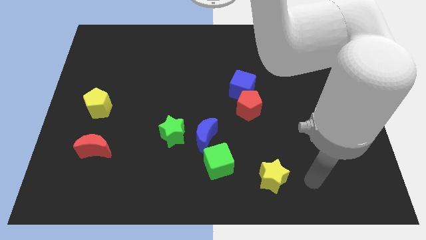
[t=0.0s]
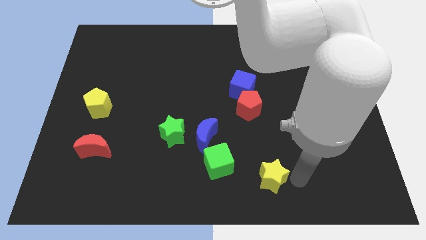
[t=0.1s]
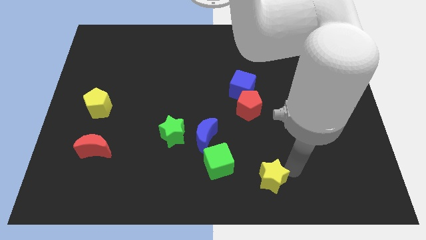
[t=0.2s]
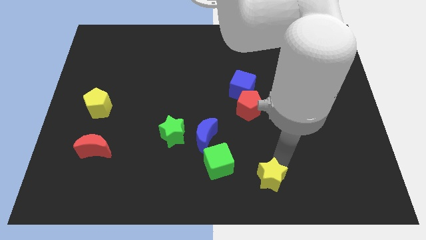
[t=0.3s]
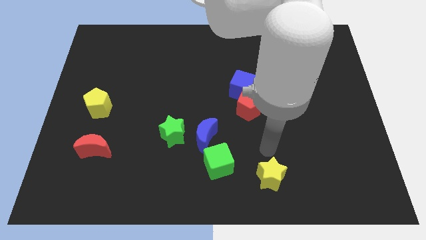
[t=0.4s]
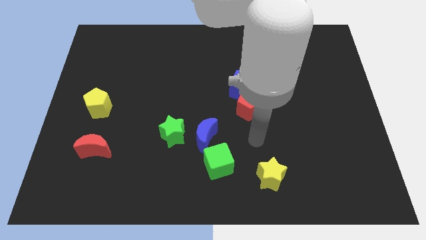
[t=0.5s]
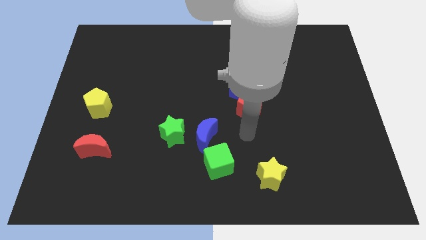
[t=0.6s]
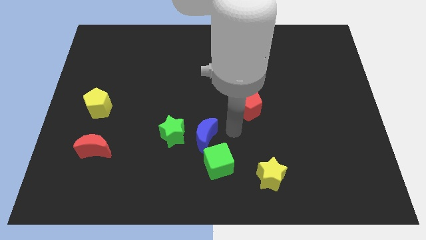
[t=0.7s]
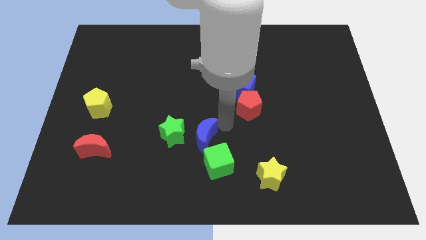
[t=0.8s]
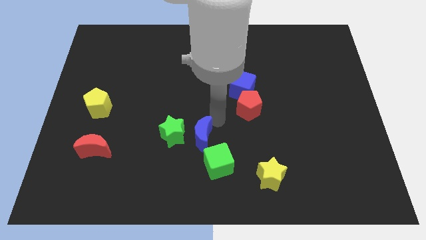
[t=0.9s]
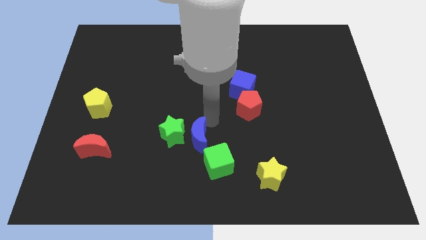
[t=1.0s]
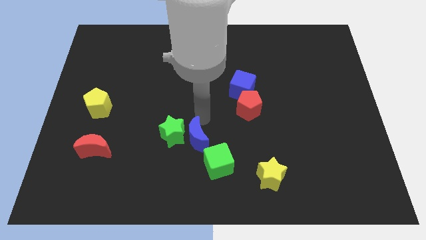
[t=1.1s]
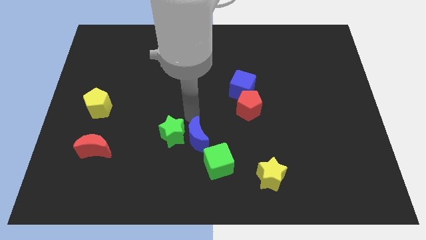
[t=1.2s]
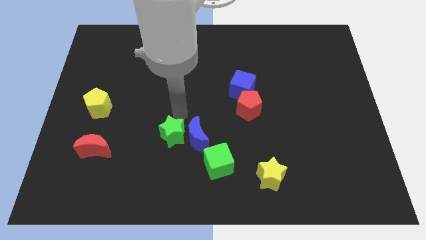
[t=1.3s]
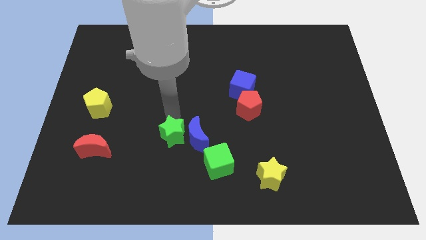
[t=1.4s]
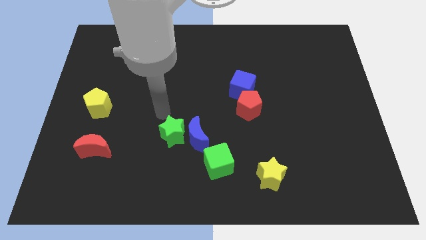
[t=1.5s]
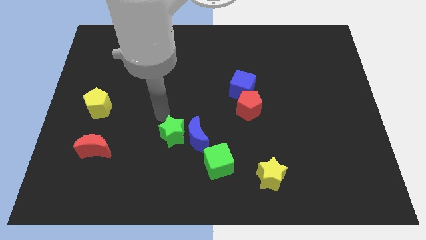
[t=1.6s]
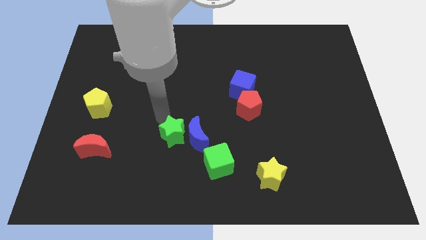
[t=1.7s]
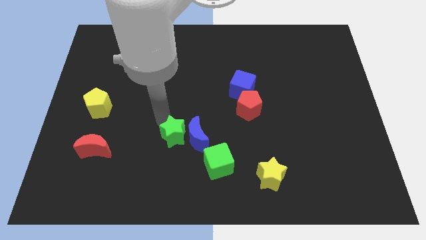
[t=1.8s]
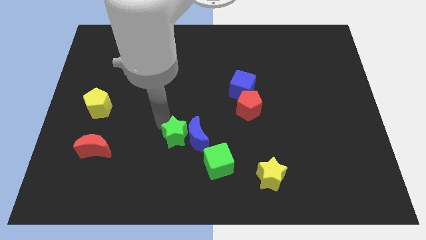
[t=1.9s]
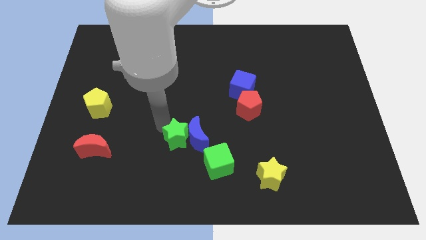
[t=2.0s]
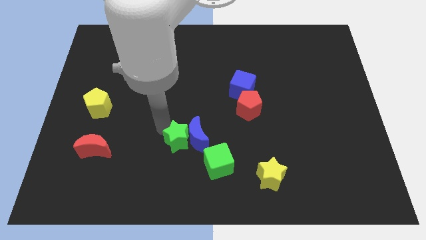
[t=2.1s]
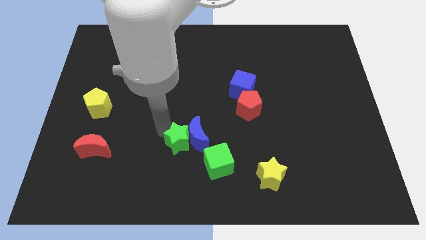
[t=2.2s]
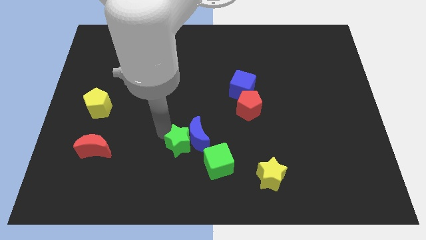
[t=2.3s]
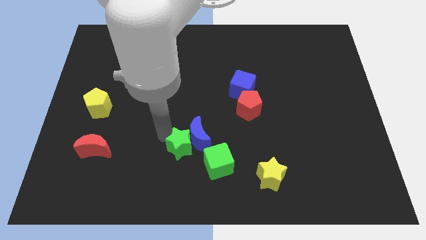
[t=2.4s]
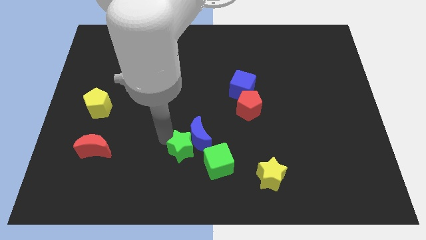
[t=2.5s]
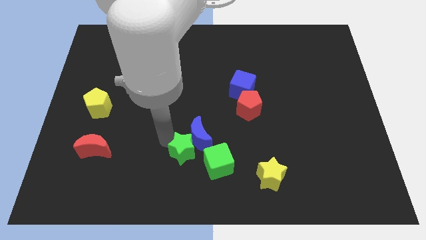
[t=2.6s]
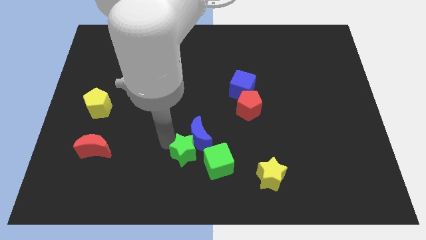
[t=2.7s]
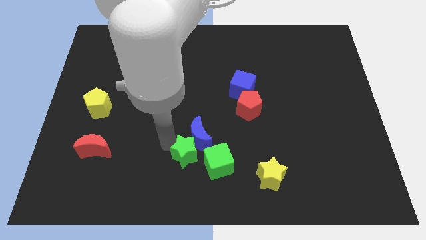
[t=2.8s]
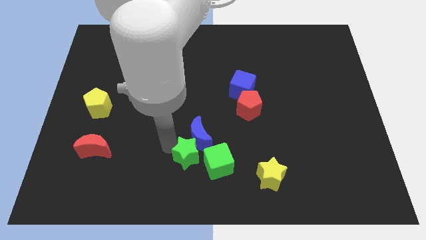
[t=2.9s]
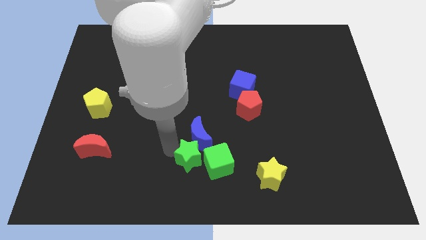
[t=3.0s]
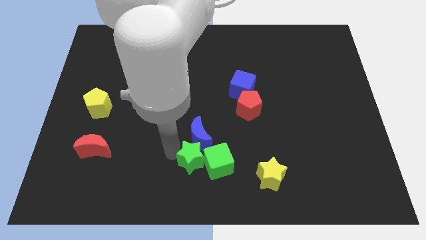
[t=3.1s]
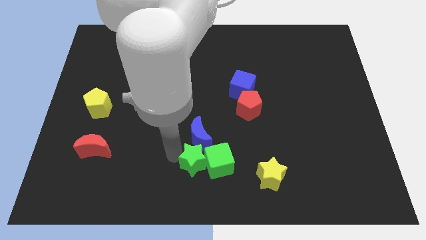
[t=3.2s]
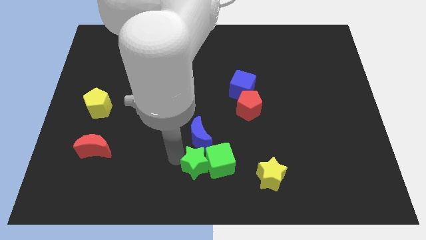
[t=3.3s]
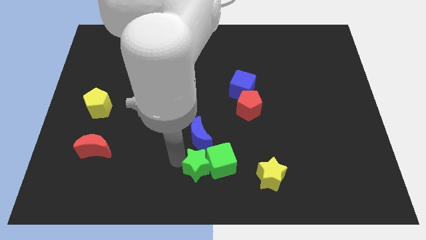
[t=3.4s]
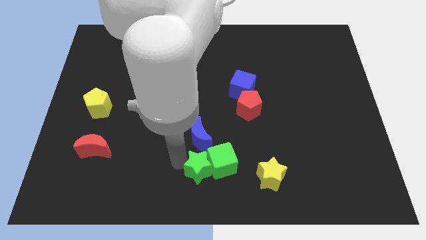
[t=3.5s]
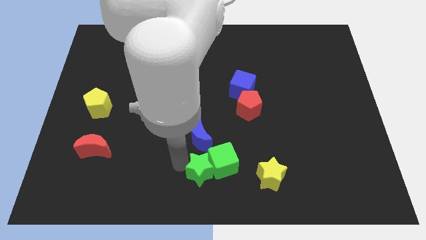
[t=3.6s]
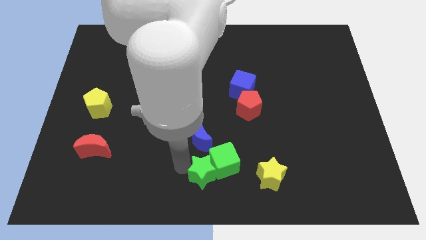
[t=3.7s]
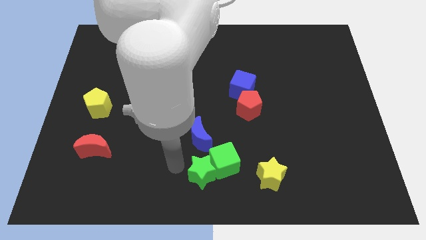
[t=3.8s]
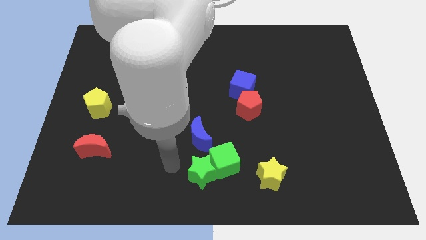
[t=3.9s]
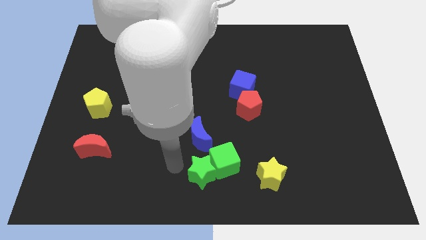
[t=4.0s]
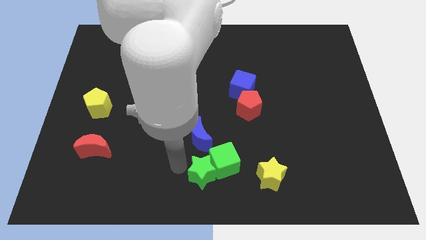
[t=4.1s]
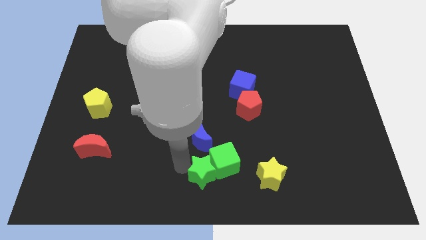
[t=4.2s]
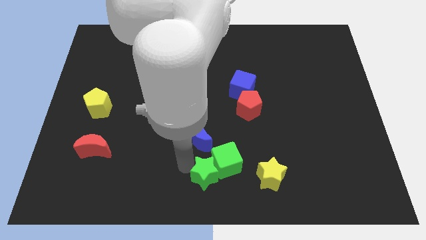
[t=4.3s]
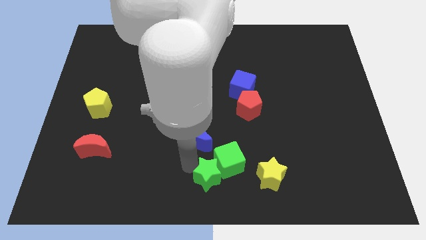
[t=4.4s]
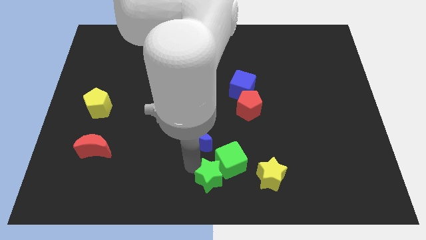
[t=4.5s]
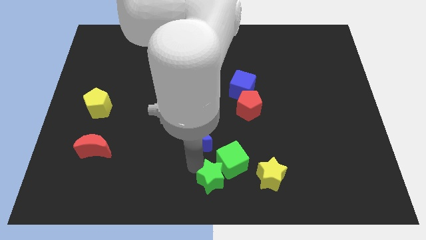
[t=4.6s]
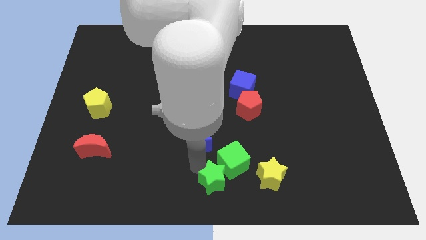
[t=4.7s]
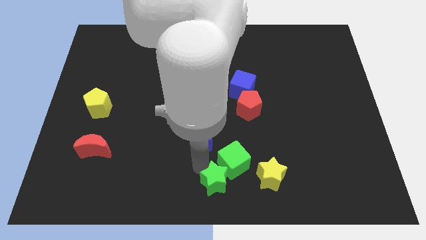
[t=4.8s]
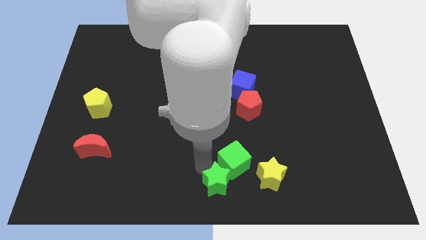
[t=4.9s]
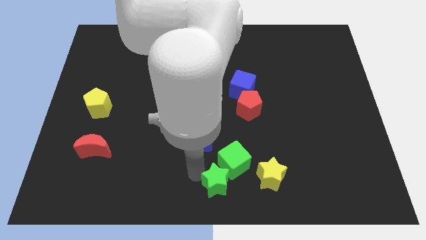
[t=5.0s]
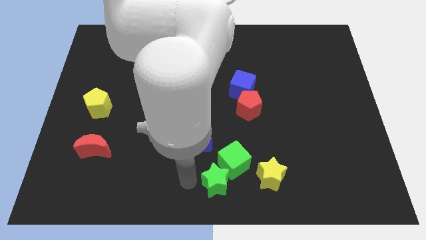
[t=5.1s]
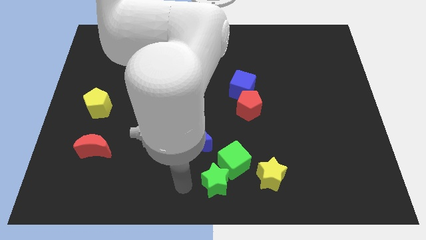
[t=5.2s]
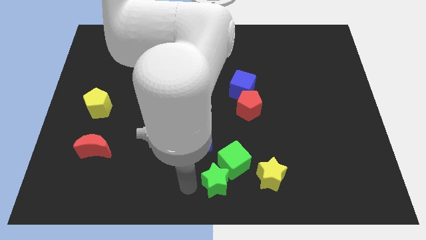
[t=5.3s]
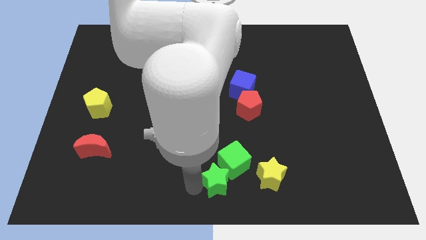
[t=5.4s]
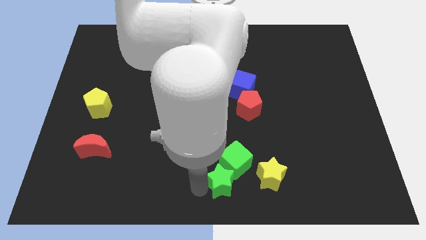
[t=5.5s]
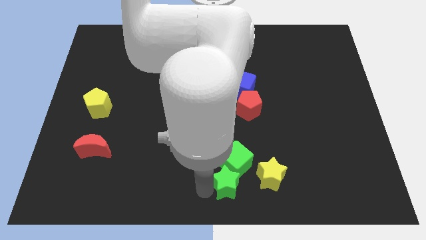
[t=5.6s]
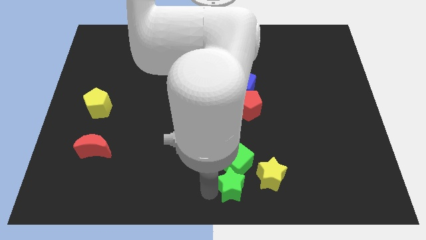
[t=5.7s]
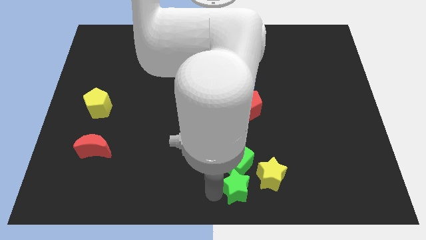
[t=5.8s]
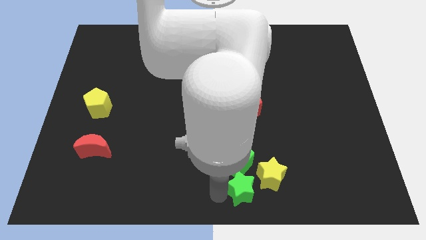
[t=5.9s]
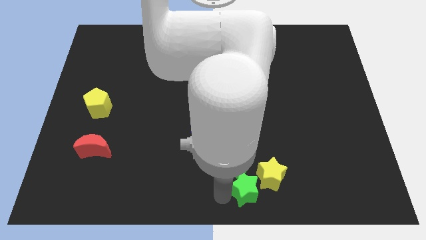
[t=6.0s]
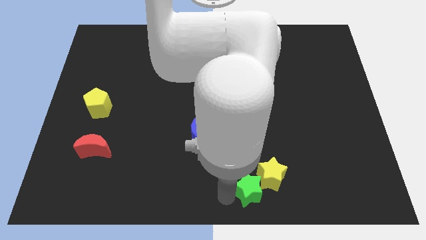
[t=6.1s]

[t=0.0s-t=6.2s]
slide the green star next to the yellow star

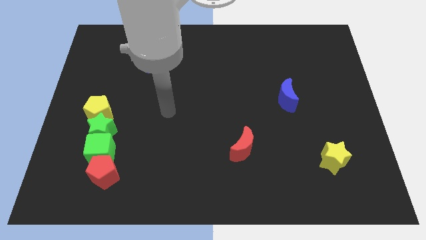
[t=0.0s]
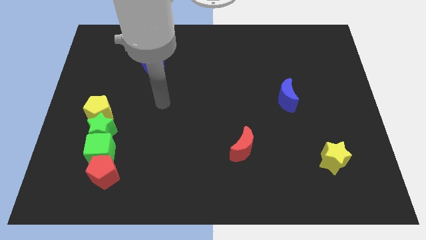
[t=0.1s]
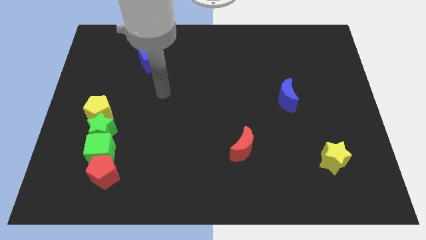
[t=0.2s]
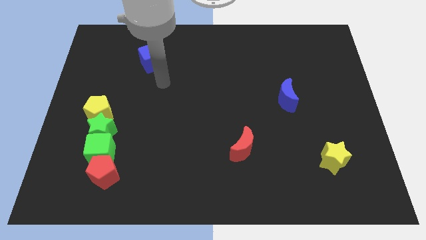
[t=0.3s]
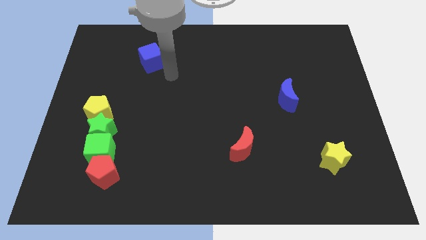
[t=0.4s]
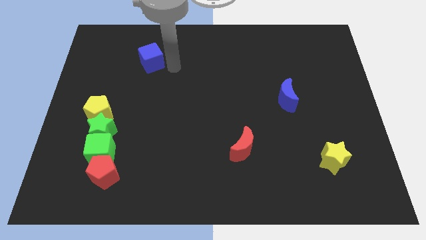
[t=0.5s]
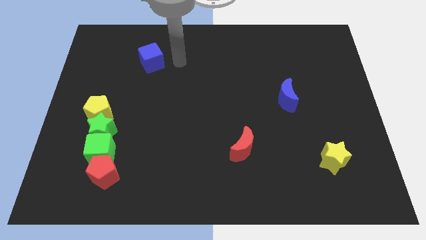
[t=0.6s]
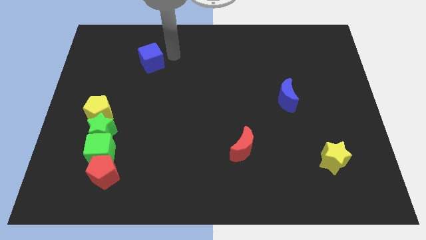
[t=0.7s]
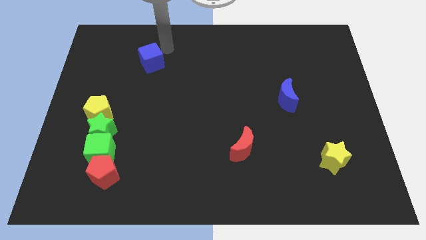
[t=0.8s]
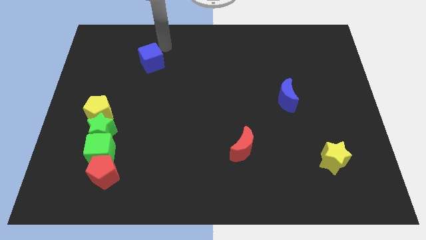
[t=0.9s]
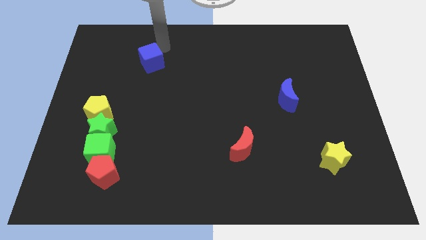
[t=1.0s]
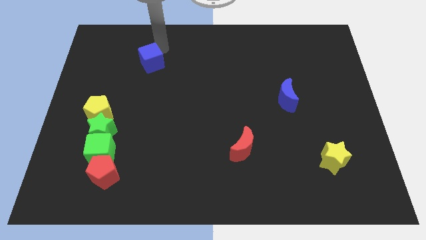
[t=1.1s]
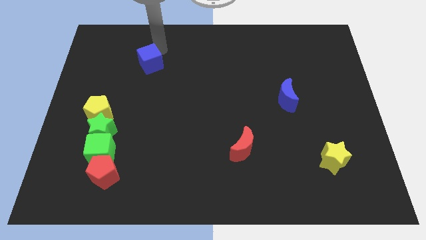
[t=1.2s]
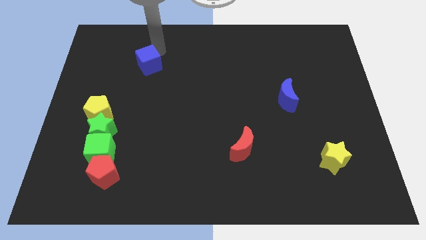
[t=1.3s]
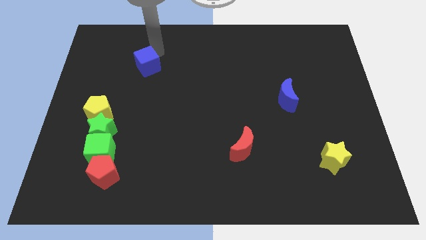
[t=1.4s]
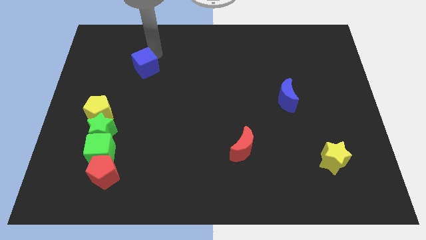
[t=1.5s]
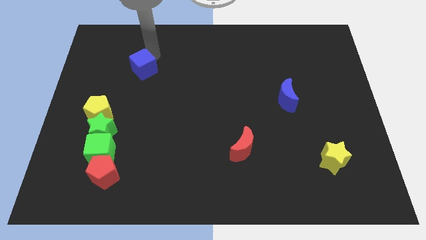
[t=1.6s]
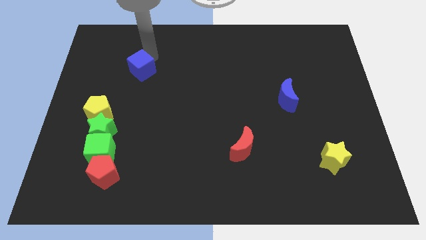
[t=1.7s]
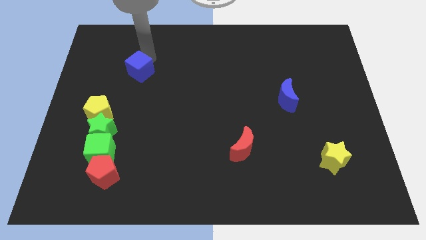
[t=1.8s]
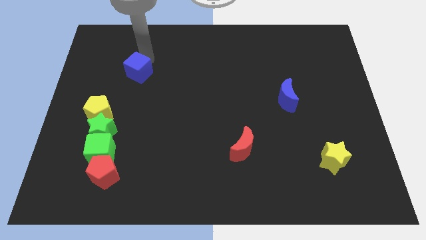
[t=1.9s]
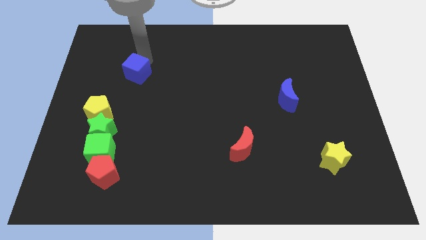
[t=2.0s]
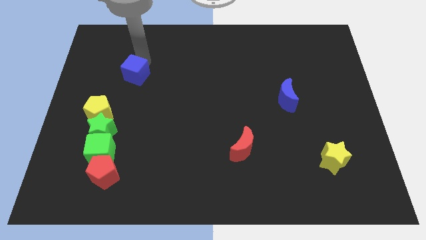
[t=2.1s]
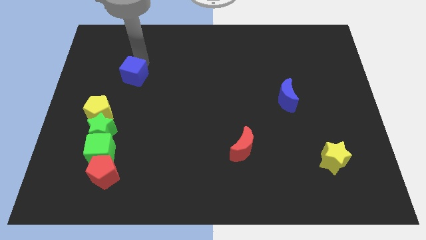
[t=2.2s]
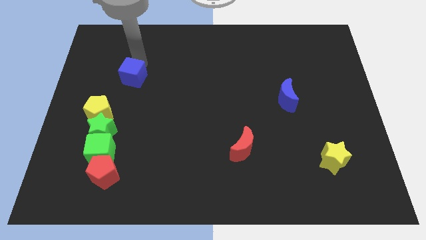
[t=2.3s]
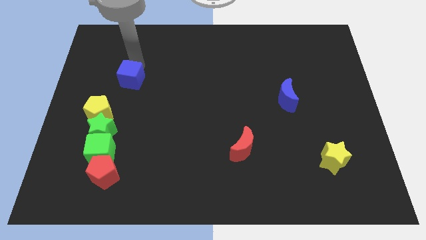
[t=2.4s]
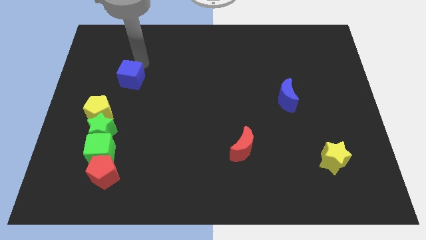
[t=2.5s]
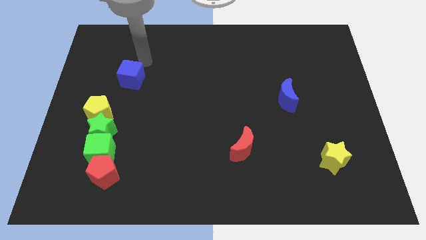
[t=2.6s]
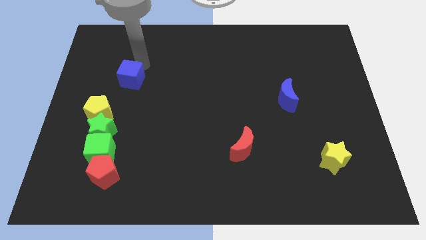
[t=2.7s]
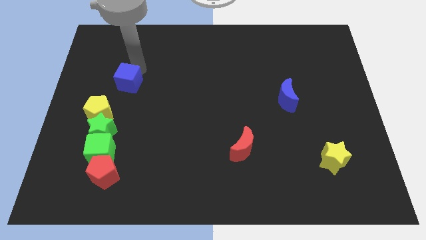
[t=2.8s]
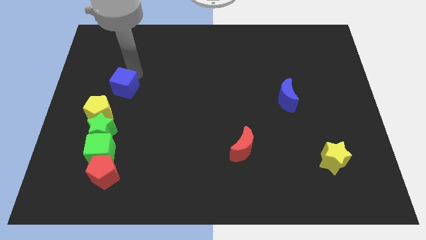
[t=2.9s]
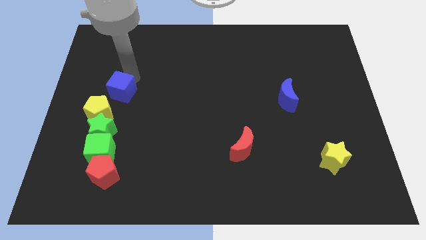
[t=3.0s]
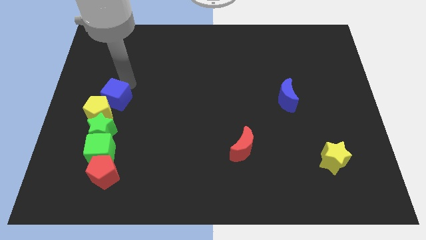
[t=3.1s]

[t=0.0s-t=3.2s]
push the blue cube towards the yellow pentagon
